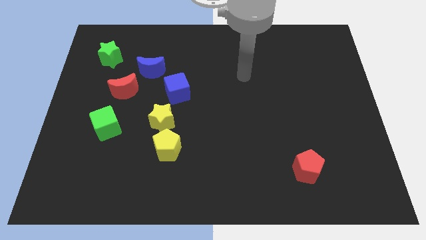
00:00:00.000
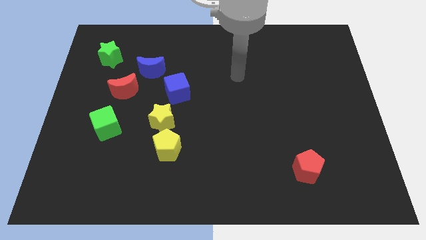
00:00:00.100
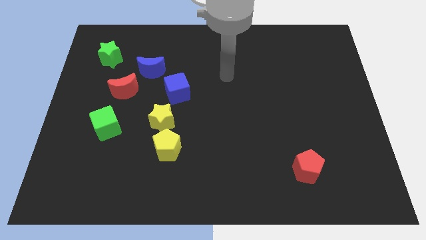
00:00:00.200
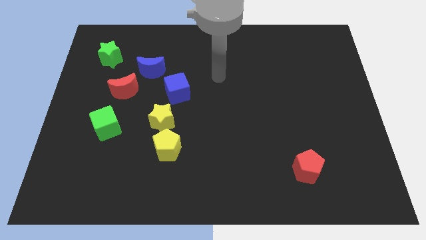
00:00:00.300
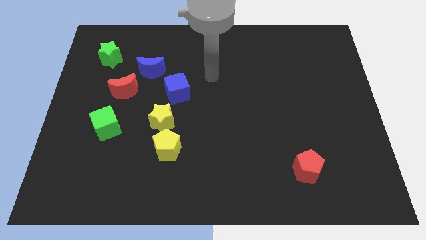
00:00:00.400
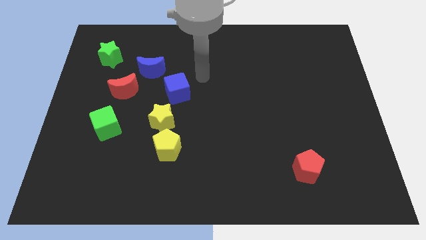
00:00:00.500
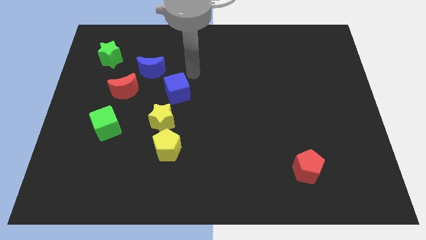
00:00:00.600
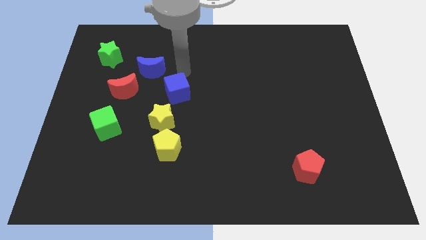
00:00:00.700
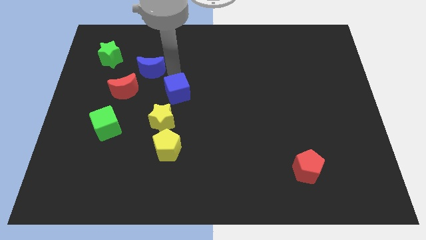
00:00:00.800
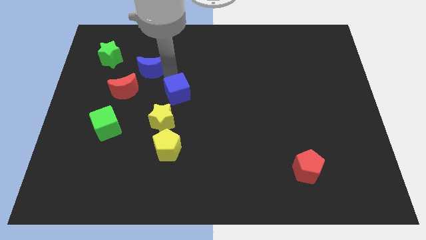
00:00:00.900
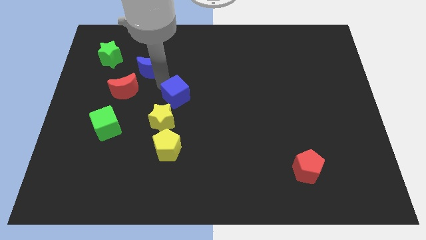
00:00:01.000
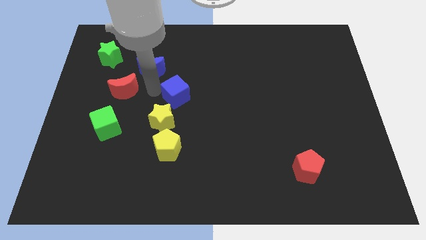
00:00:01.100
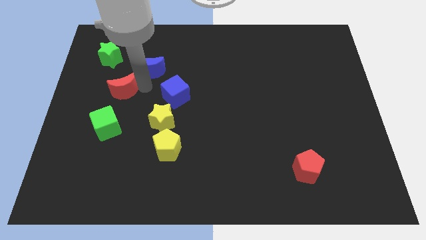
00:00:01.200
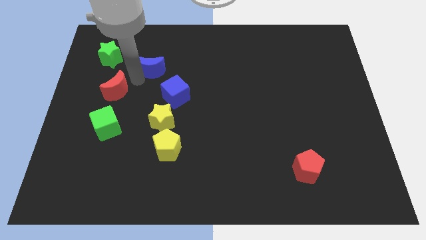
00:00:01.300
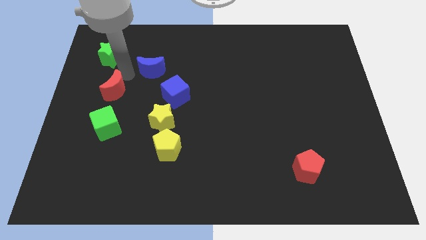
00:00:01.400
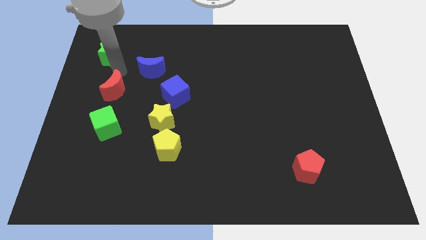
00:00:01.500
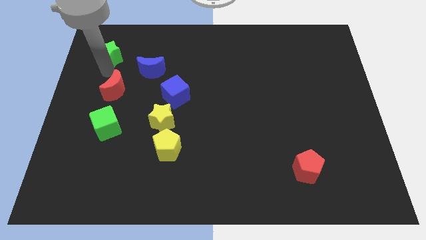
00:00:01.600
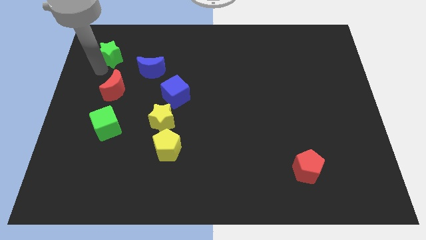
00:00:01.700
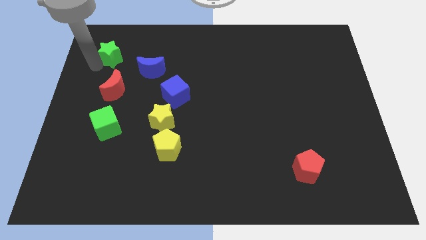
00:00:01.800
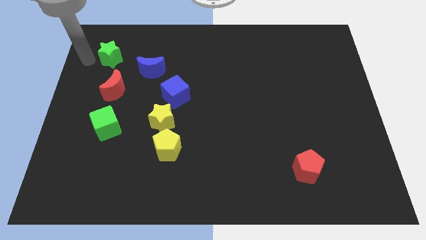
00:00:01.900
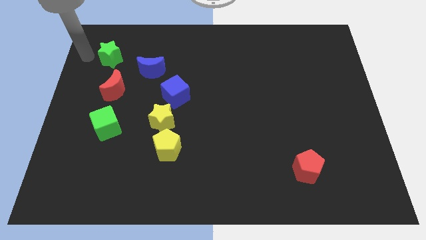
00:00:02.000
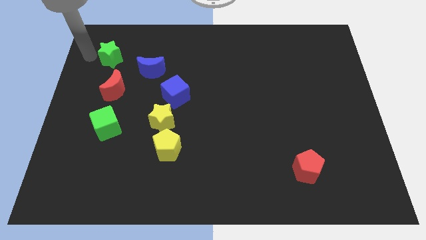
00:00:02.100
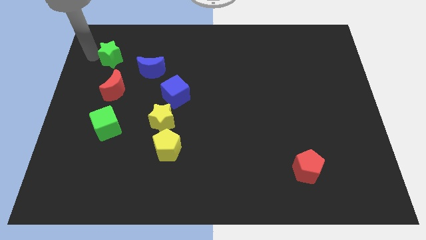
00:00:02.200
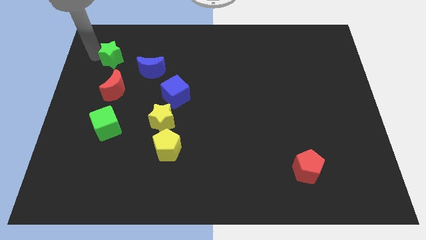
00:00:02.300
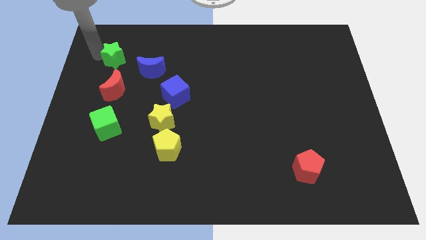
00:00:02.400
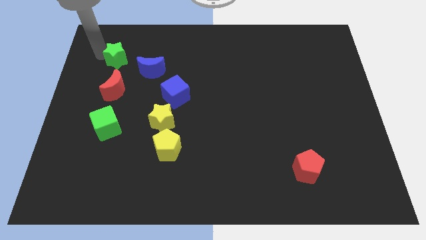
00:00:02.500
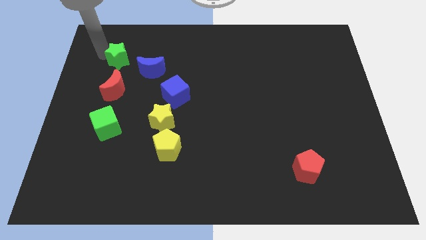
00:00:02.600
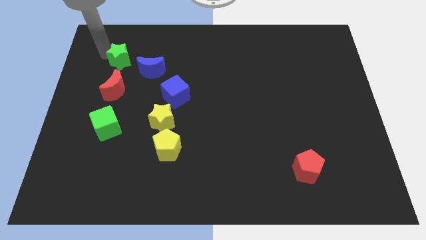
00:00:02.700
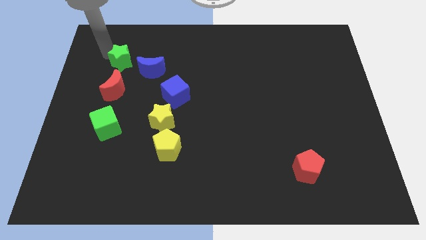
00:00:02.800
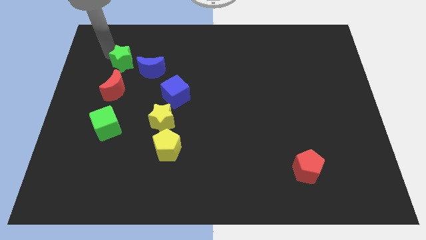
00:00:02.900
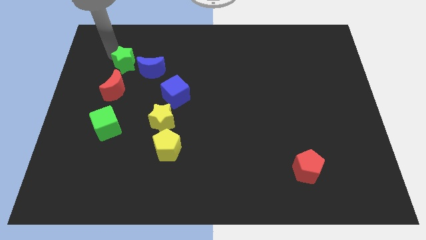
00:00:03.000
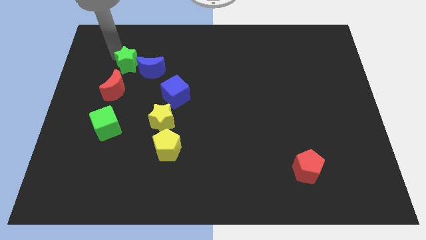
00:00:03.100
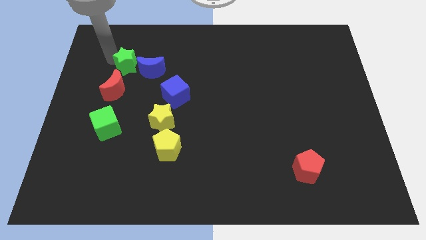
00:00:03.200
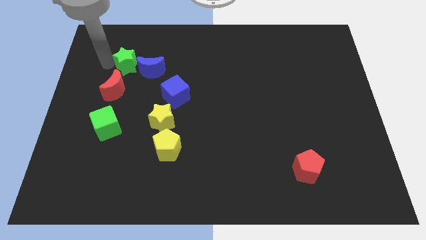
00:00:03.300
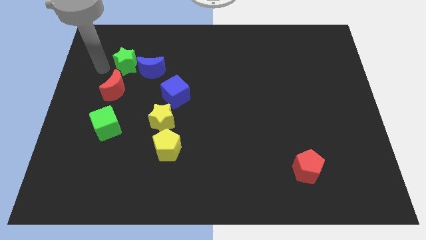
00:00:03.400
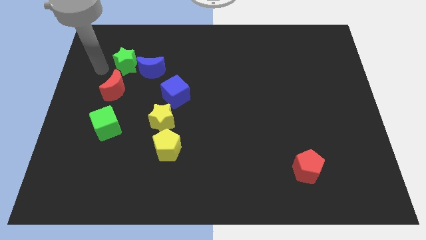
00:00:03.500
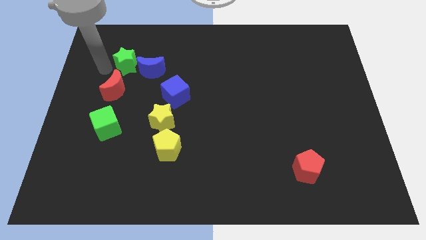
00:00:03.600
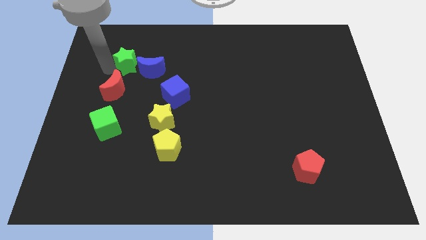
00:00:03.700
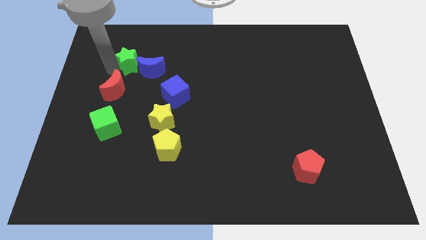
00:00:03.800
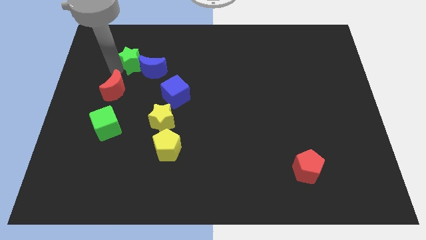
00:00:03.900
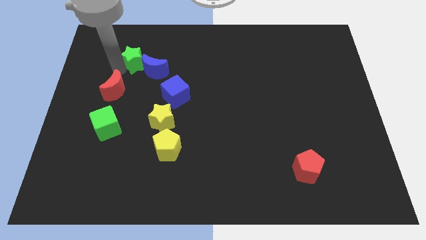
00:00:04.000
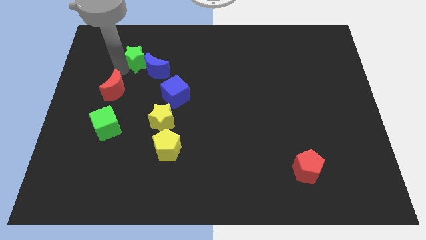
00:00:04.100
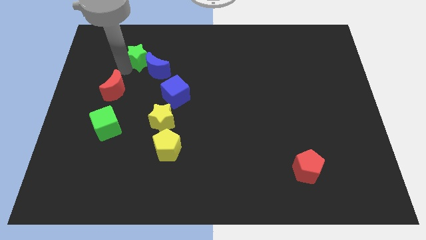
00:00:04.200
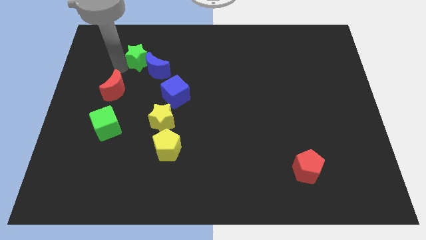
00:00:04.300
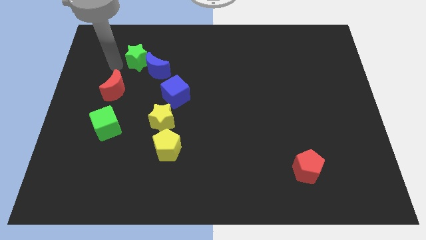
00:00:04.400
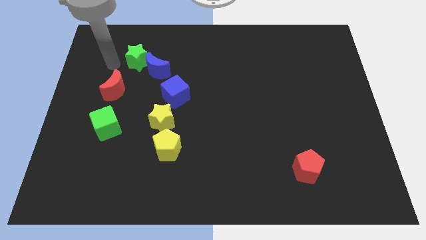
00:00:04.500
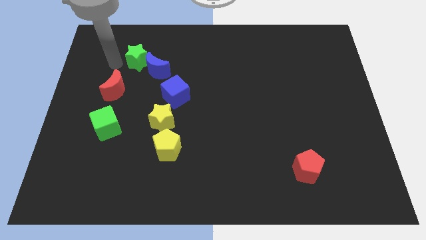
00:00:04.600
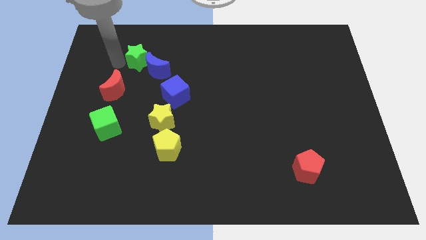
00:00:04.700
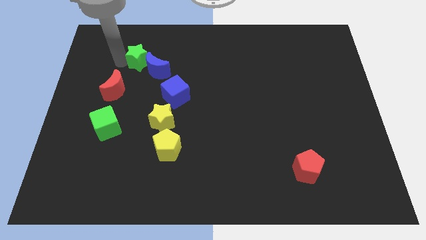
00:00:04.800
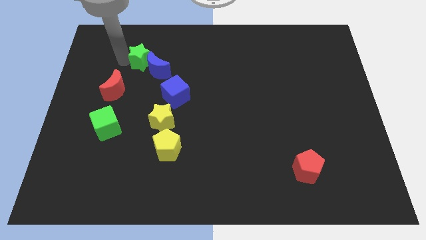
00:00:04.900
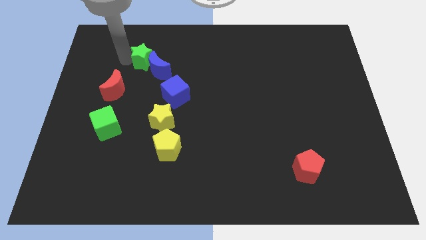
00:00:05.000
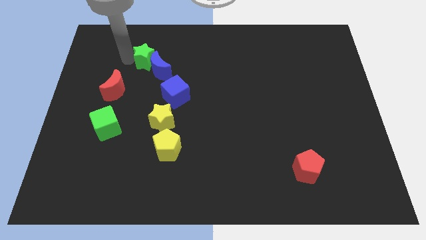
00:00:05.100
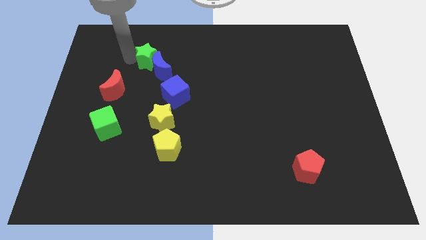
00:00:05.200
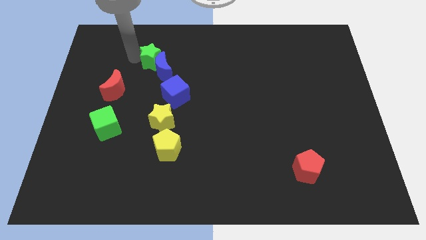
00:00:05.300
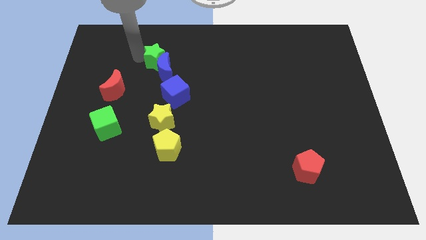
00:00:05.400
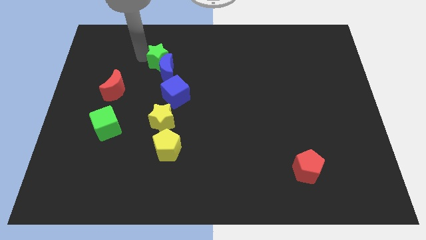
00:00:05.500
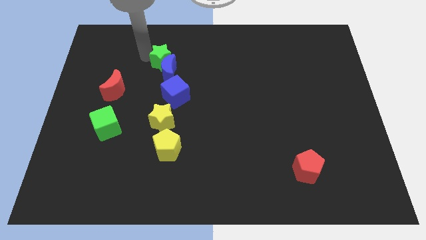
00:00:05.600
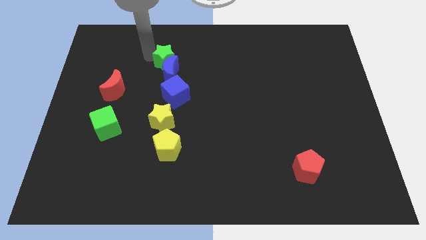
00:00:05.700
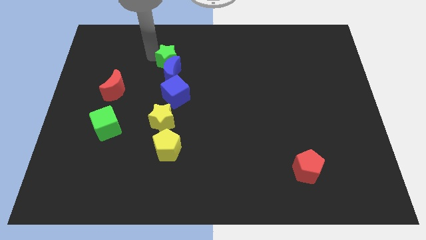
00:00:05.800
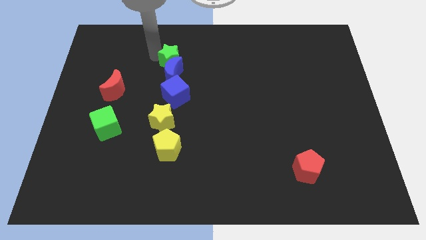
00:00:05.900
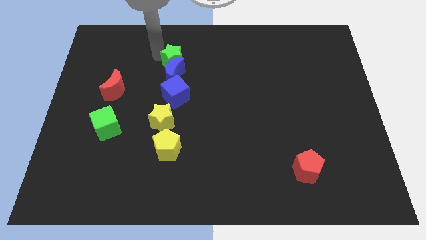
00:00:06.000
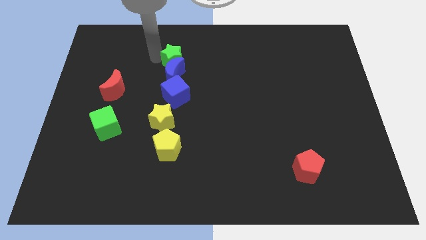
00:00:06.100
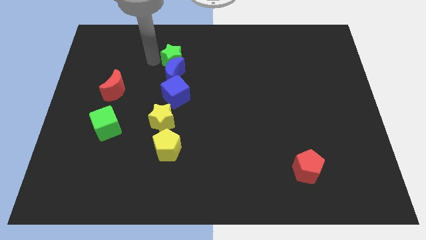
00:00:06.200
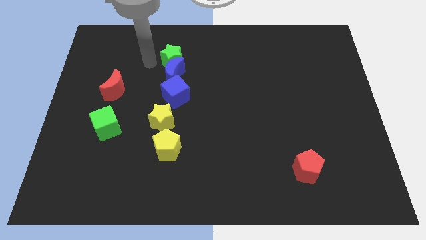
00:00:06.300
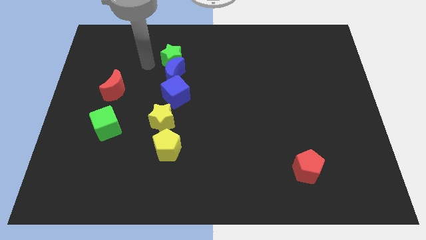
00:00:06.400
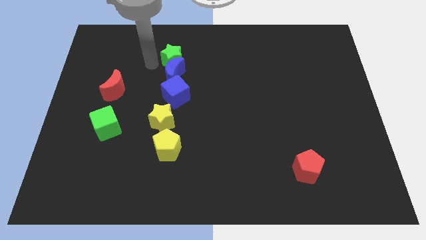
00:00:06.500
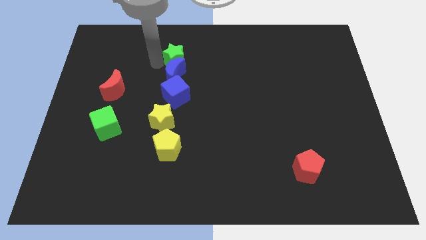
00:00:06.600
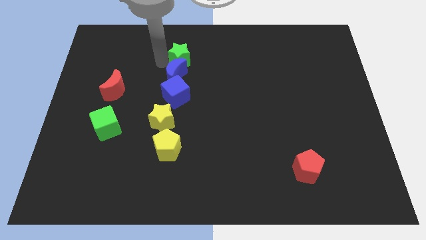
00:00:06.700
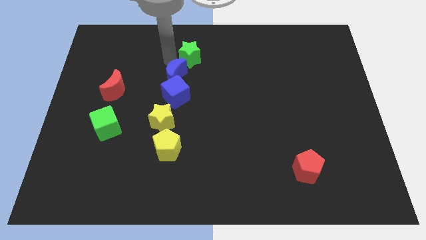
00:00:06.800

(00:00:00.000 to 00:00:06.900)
push the green star to the right

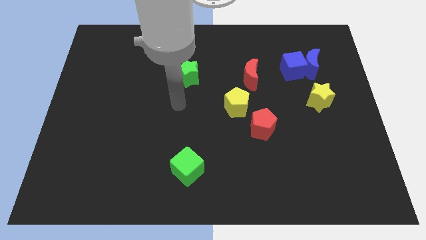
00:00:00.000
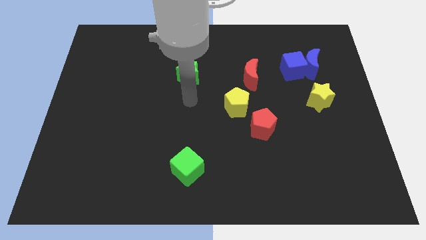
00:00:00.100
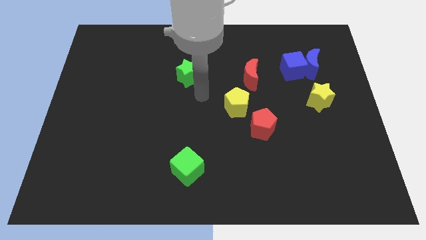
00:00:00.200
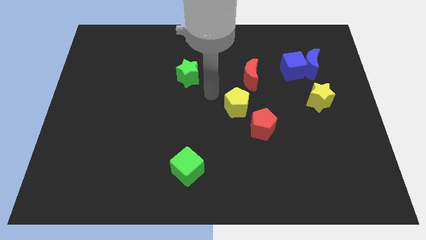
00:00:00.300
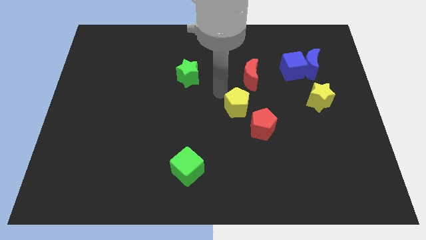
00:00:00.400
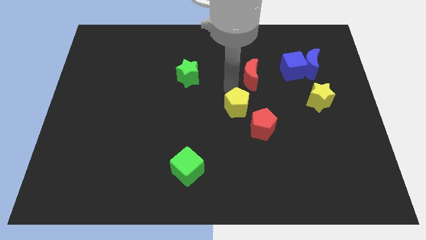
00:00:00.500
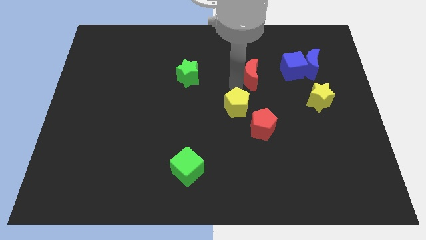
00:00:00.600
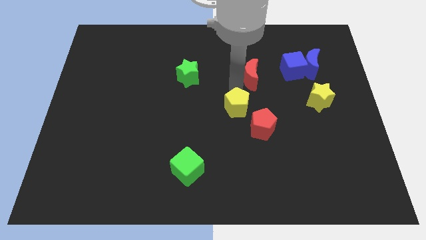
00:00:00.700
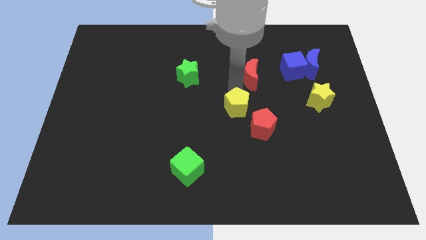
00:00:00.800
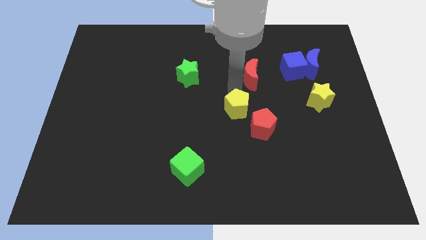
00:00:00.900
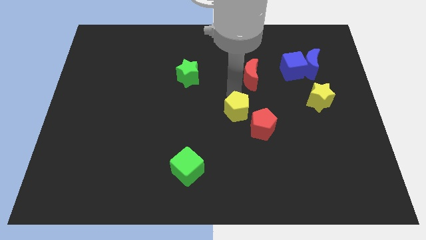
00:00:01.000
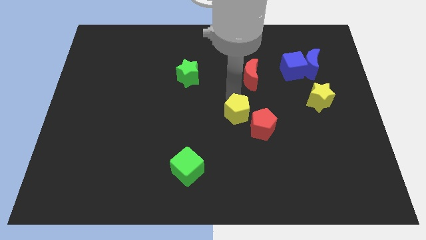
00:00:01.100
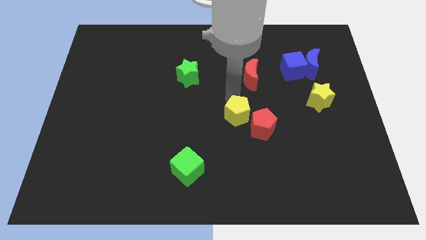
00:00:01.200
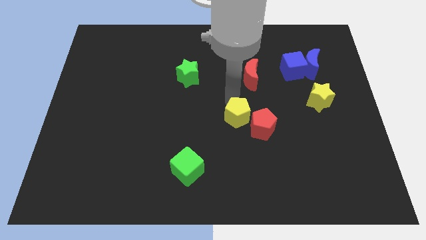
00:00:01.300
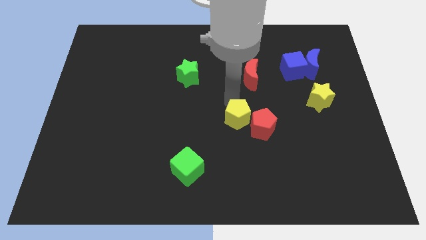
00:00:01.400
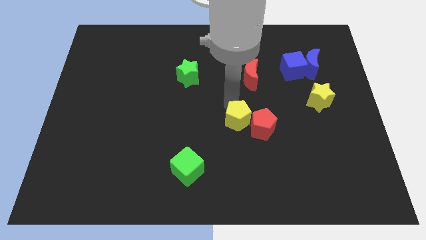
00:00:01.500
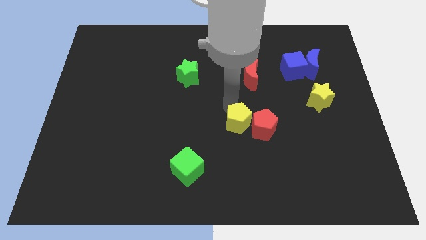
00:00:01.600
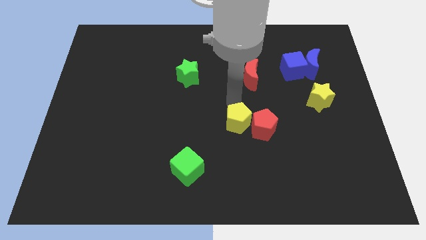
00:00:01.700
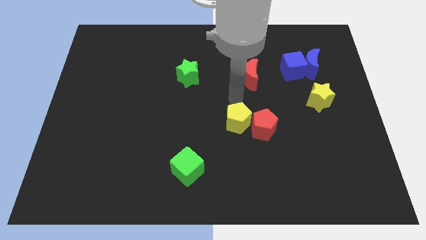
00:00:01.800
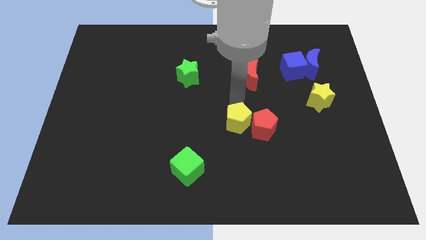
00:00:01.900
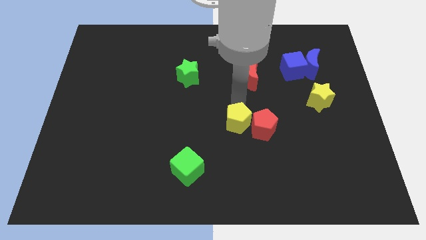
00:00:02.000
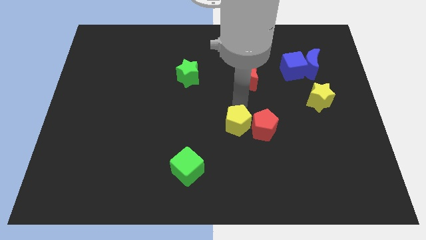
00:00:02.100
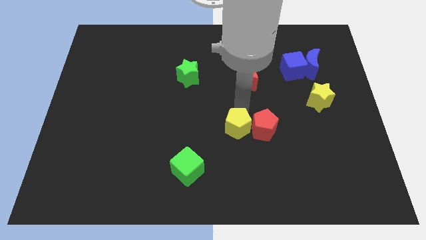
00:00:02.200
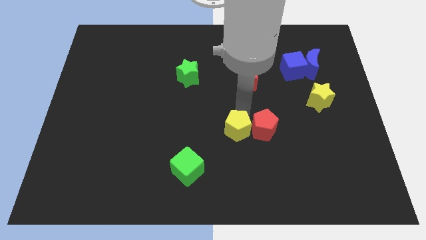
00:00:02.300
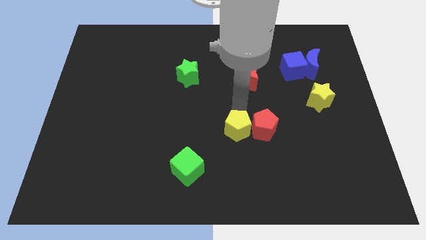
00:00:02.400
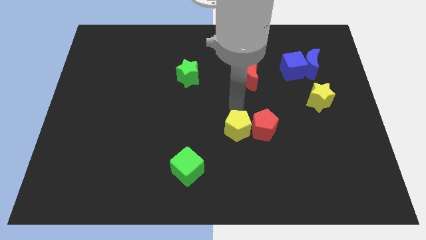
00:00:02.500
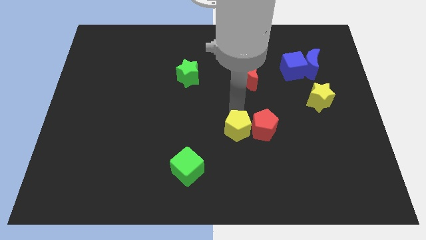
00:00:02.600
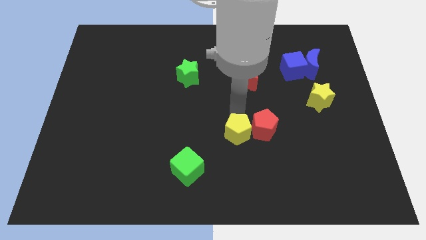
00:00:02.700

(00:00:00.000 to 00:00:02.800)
slide the yellow pentagon somewhat downwards
